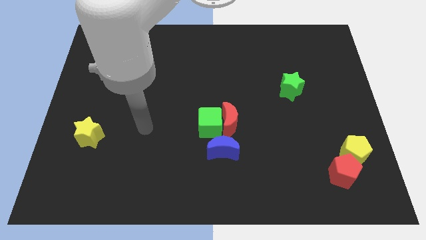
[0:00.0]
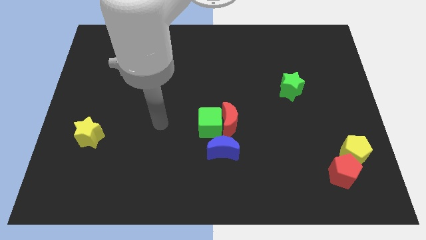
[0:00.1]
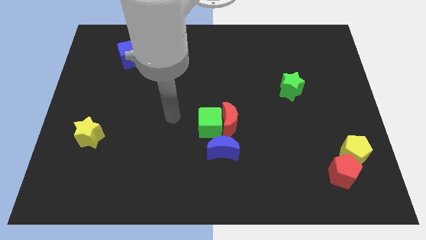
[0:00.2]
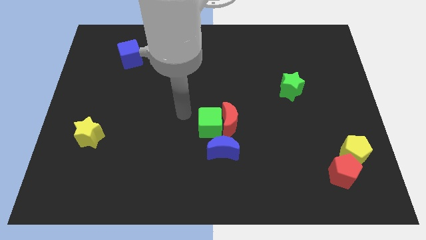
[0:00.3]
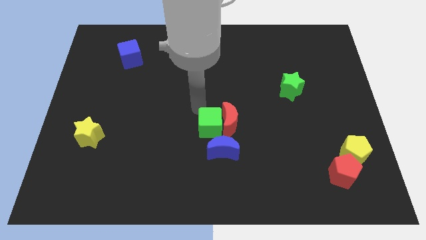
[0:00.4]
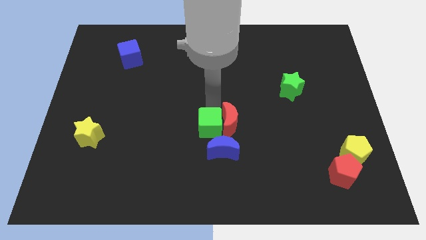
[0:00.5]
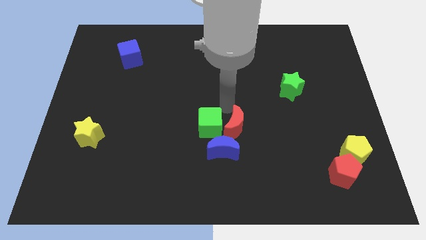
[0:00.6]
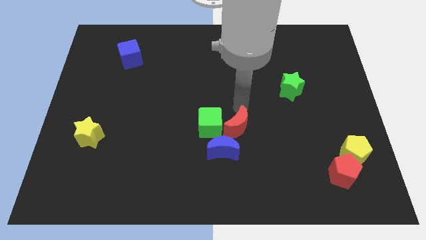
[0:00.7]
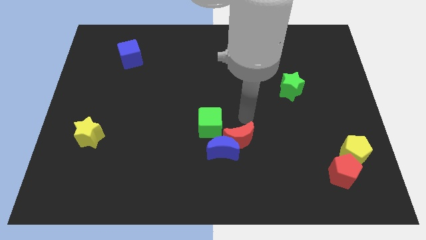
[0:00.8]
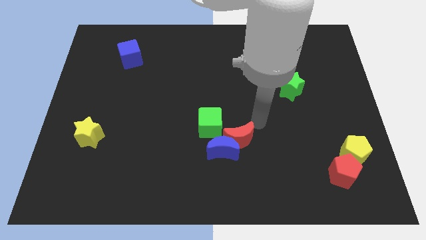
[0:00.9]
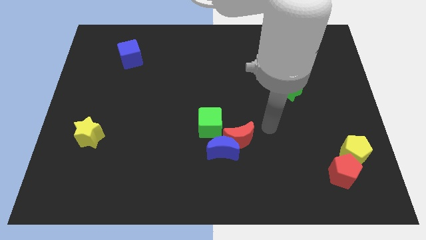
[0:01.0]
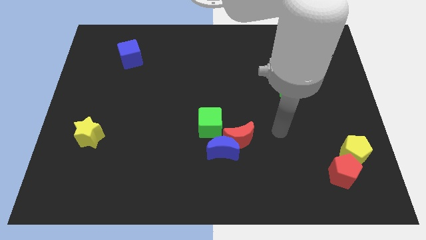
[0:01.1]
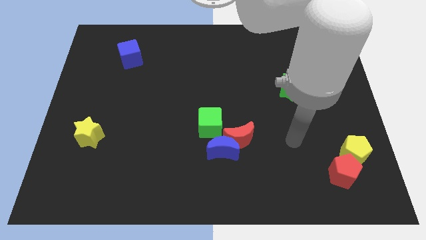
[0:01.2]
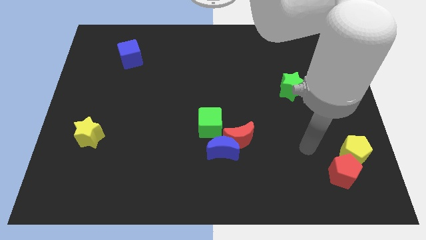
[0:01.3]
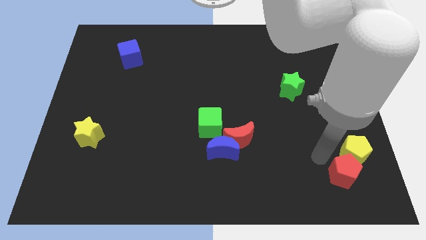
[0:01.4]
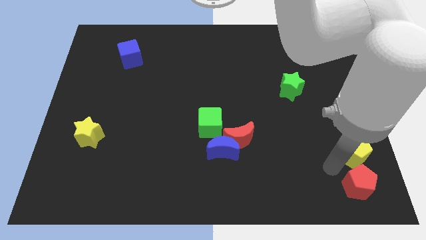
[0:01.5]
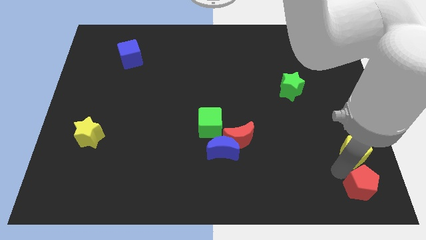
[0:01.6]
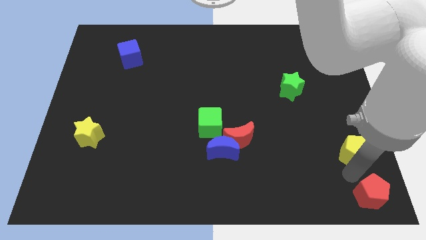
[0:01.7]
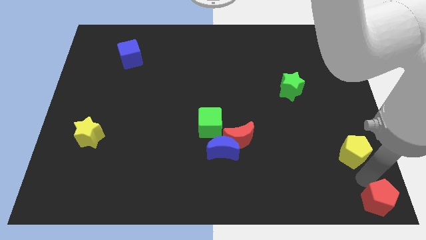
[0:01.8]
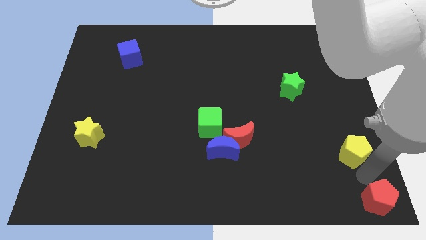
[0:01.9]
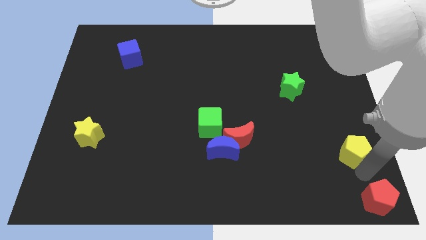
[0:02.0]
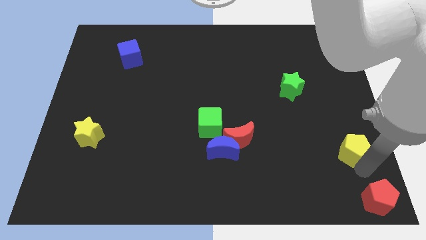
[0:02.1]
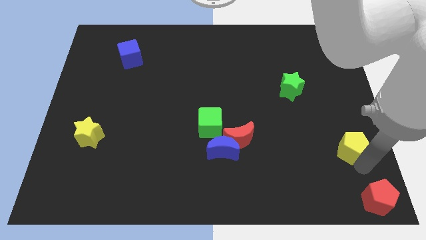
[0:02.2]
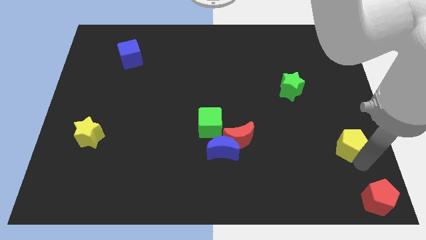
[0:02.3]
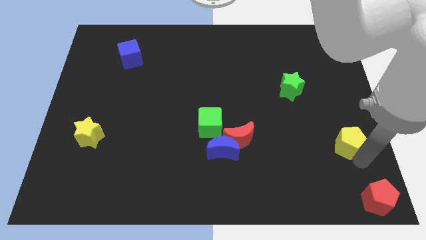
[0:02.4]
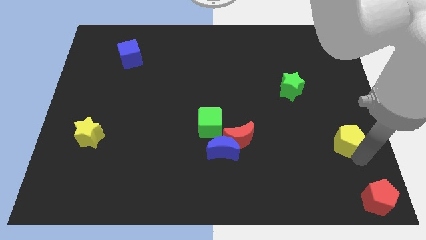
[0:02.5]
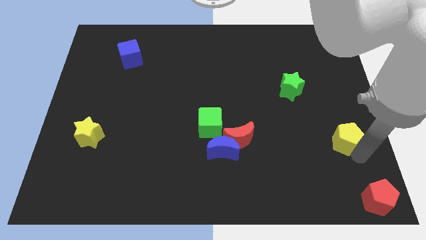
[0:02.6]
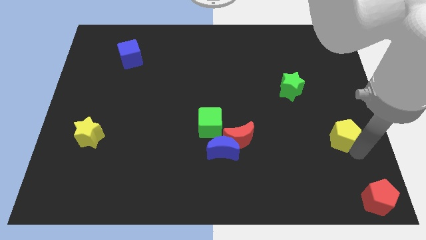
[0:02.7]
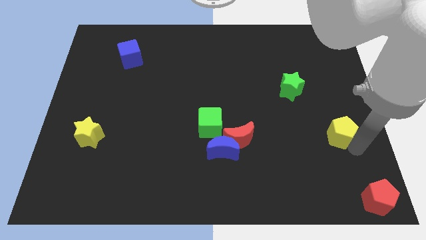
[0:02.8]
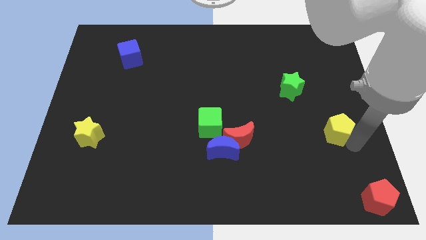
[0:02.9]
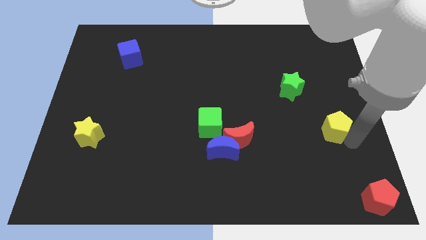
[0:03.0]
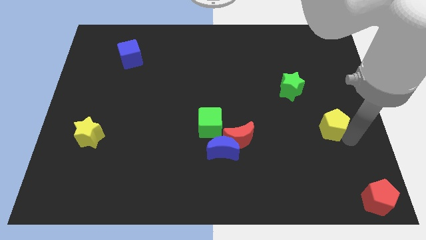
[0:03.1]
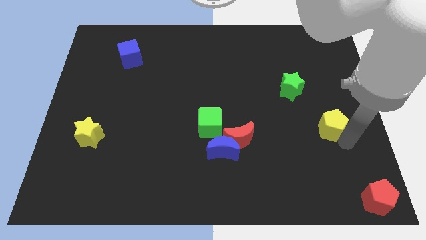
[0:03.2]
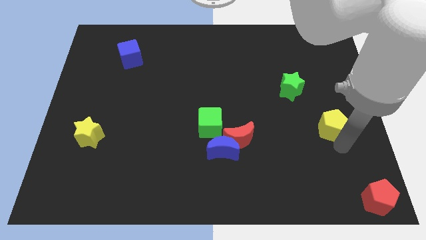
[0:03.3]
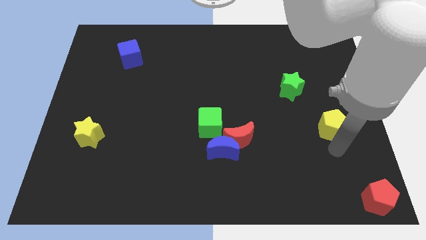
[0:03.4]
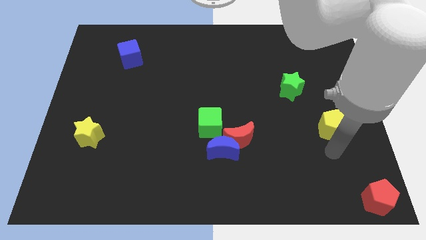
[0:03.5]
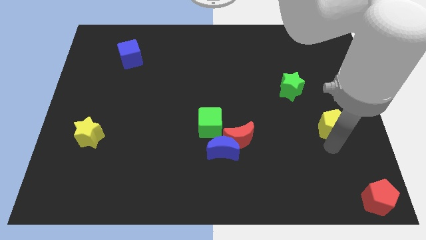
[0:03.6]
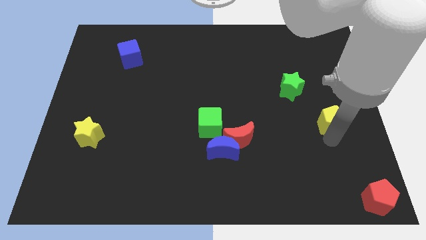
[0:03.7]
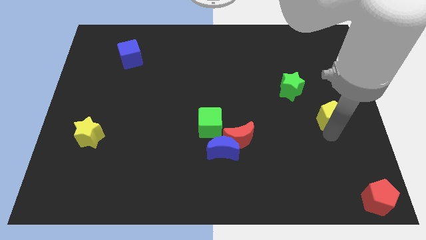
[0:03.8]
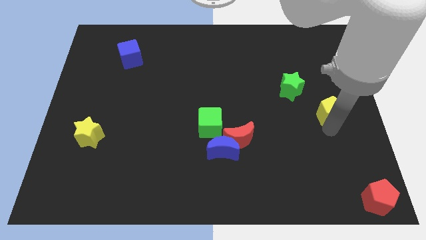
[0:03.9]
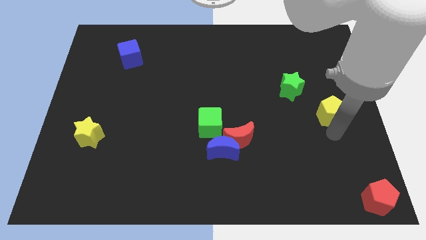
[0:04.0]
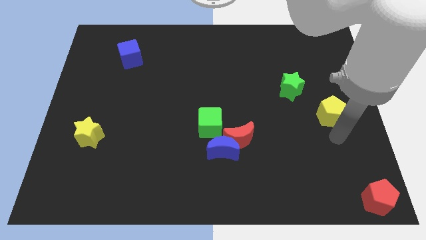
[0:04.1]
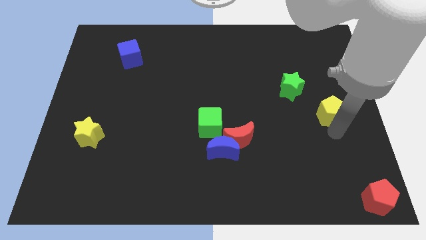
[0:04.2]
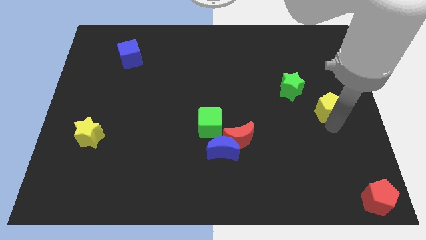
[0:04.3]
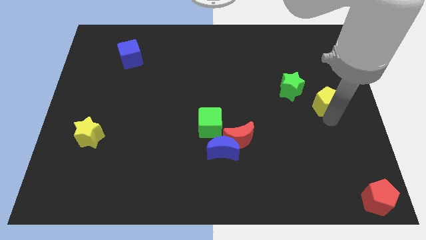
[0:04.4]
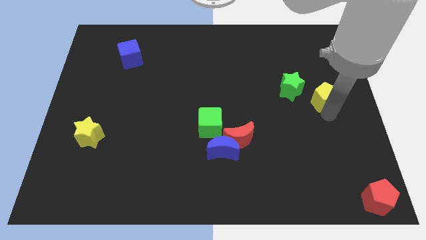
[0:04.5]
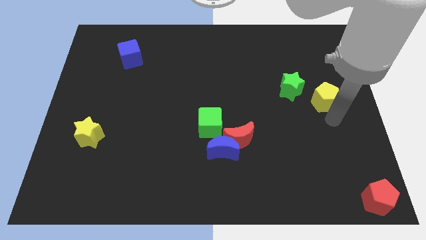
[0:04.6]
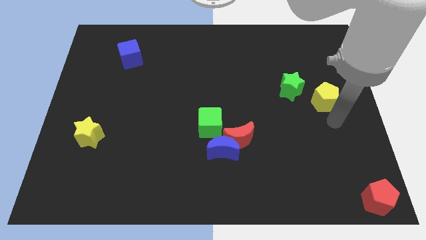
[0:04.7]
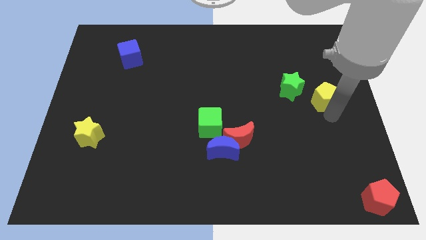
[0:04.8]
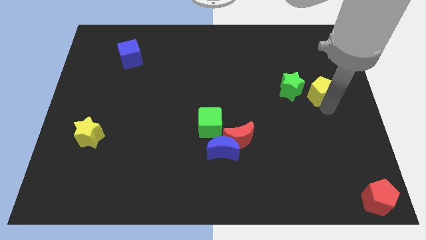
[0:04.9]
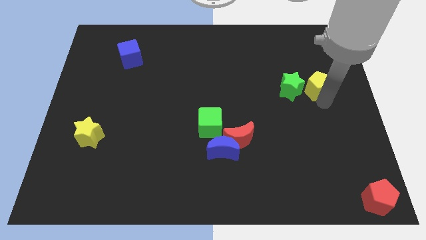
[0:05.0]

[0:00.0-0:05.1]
move the yellow pentagon diagonally up and to the right of the green star

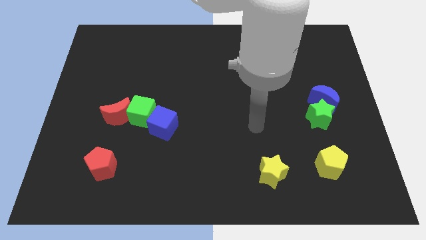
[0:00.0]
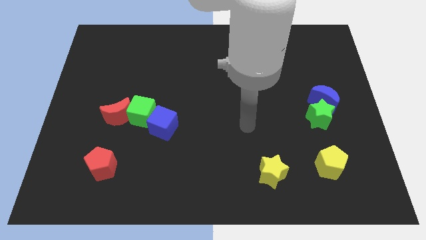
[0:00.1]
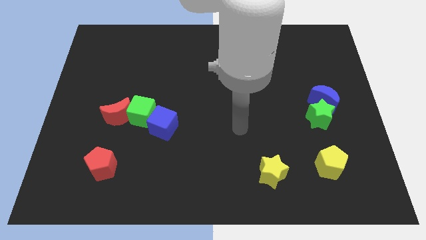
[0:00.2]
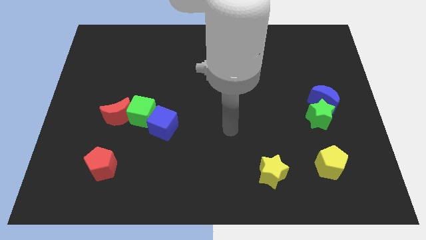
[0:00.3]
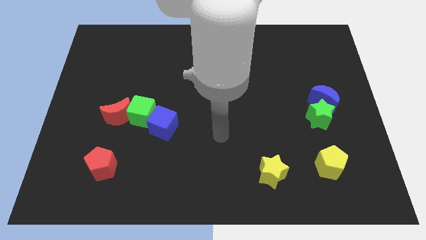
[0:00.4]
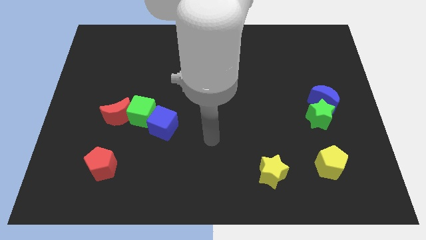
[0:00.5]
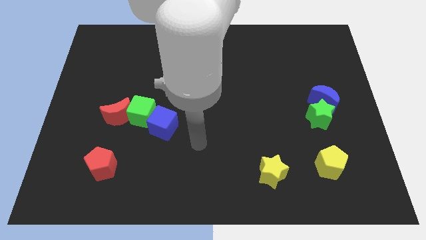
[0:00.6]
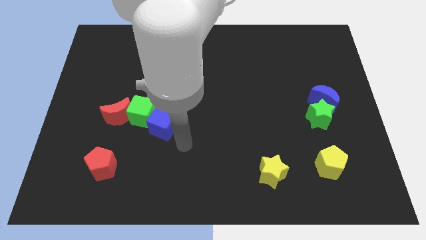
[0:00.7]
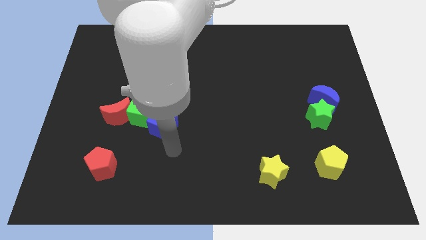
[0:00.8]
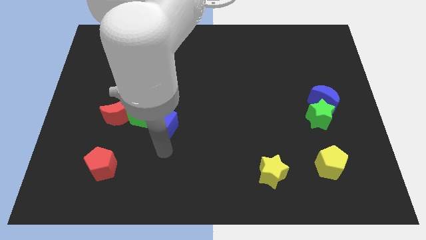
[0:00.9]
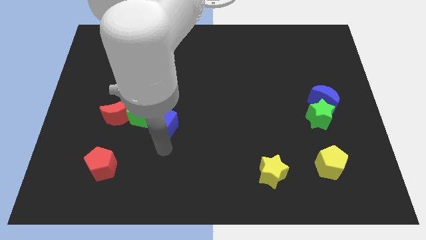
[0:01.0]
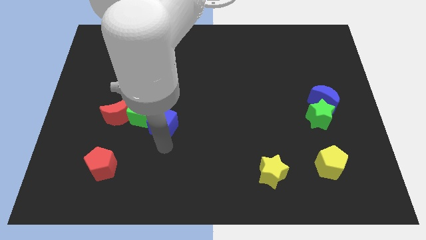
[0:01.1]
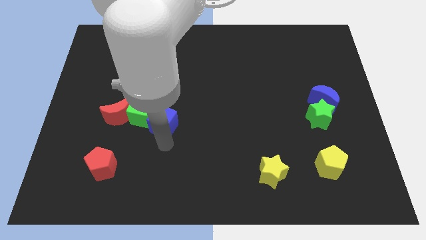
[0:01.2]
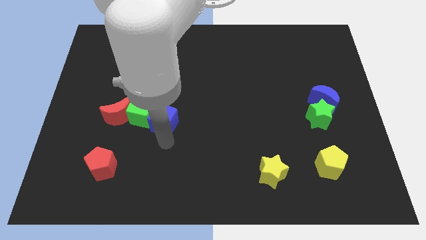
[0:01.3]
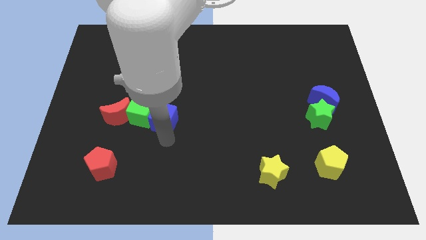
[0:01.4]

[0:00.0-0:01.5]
slide the blue cube diagonally up and to the right of the green cube

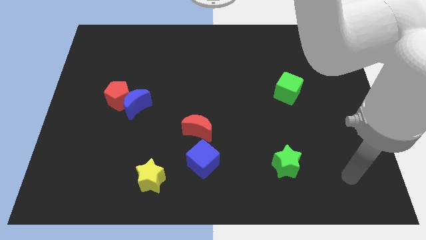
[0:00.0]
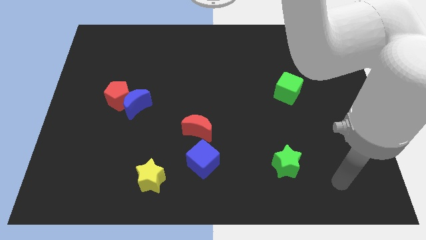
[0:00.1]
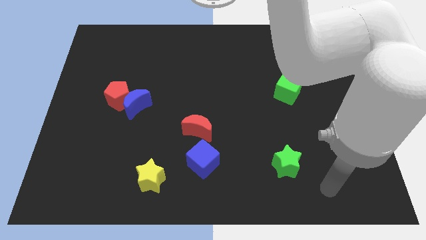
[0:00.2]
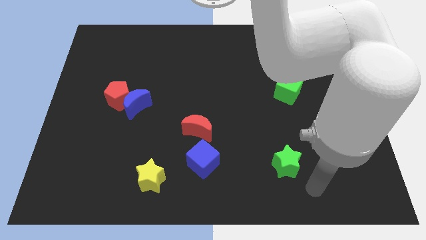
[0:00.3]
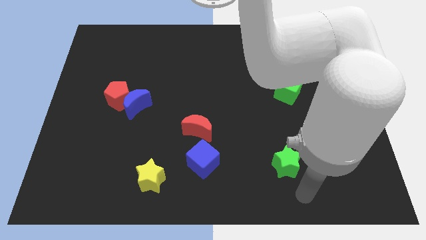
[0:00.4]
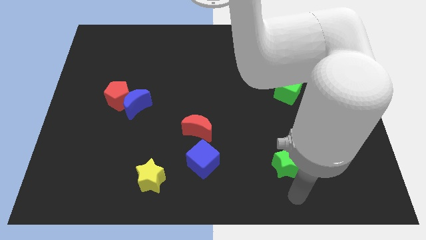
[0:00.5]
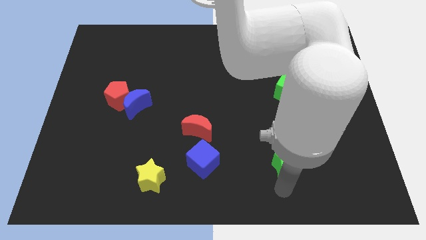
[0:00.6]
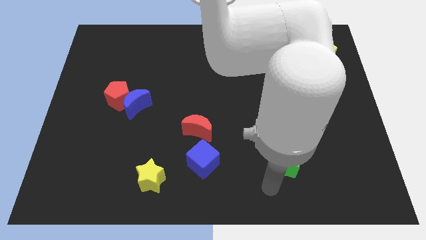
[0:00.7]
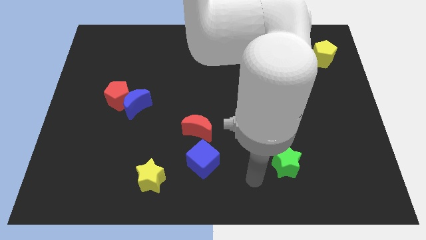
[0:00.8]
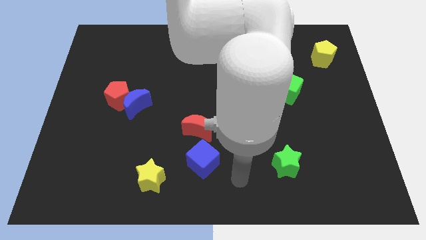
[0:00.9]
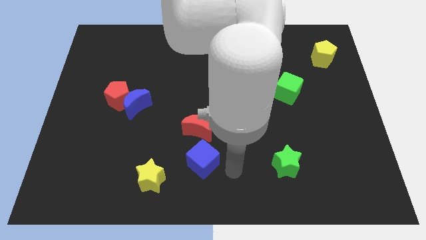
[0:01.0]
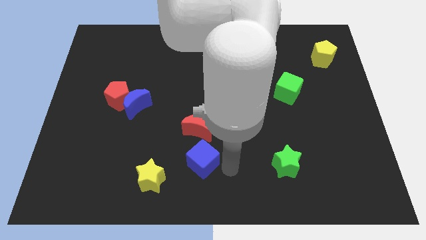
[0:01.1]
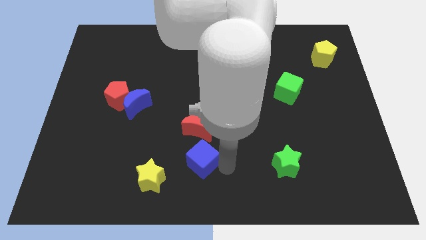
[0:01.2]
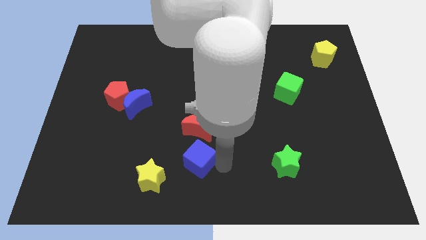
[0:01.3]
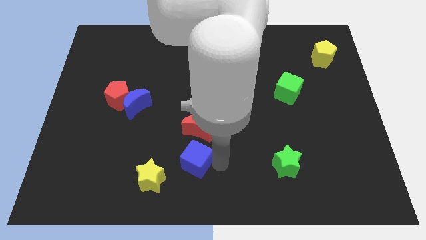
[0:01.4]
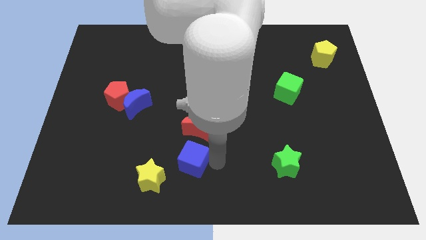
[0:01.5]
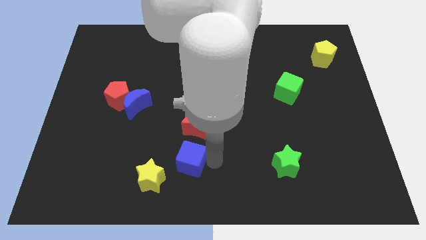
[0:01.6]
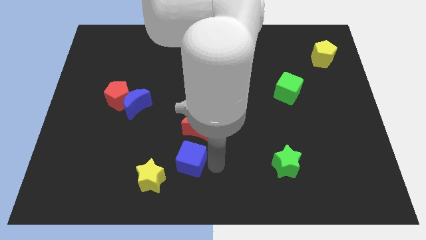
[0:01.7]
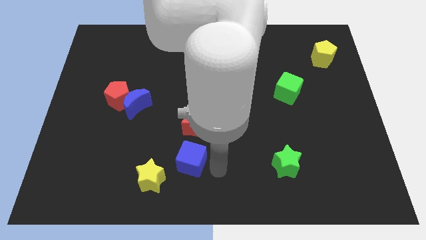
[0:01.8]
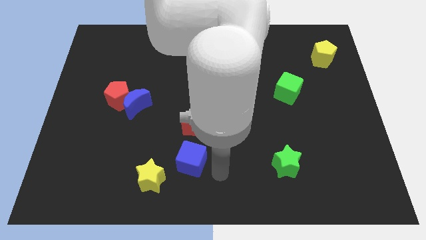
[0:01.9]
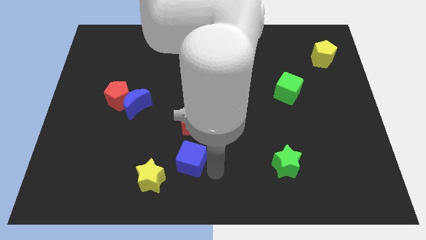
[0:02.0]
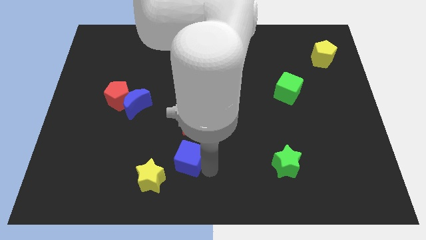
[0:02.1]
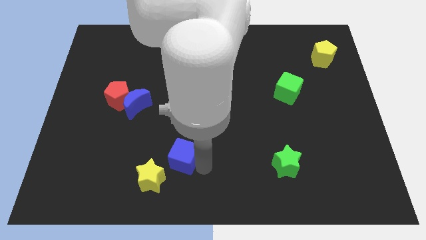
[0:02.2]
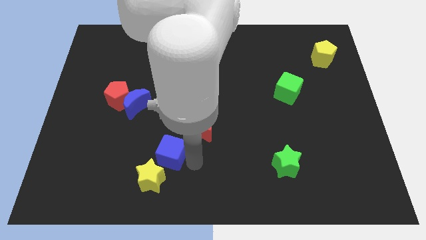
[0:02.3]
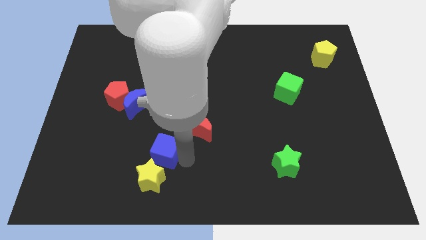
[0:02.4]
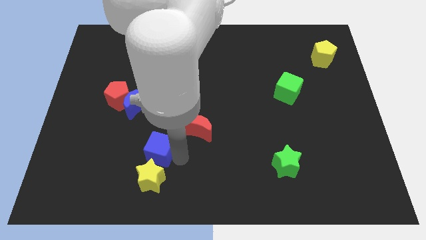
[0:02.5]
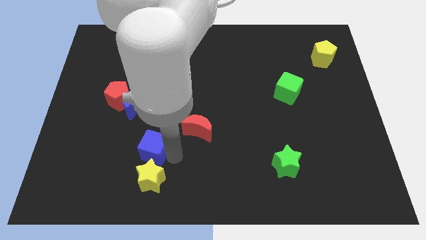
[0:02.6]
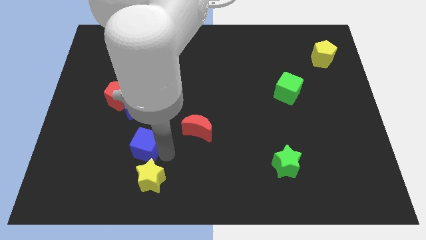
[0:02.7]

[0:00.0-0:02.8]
slide the blue cube to the bottom side of the blue moon
